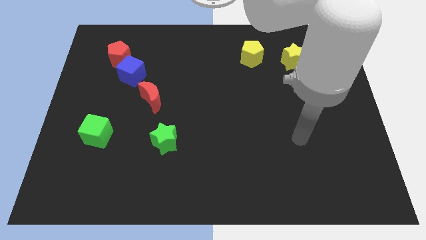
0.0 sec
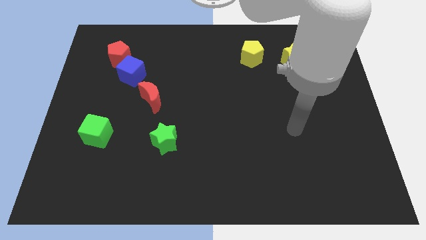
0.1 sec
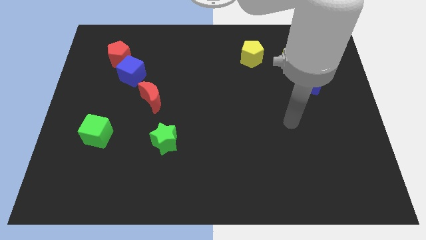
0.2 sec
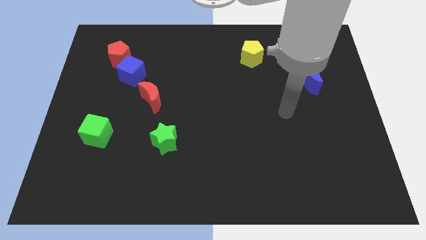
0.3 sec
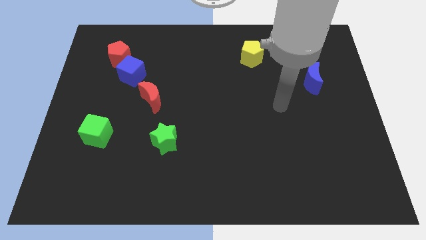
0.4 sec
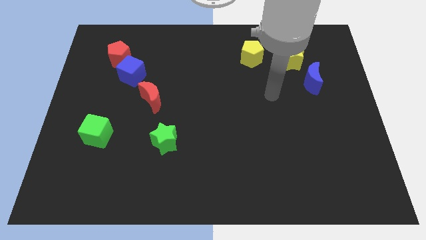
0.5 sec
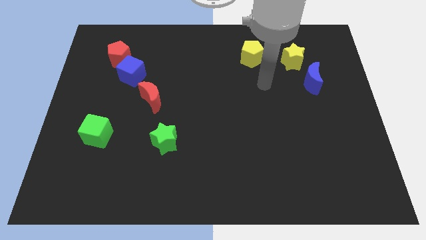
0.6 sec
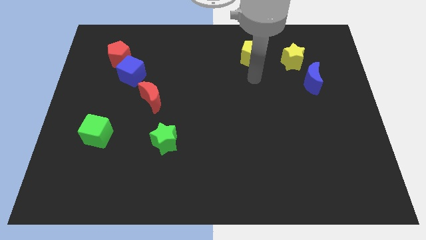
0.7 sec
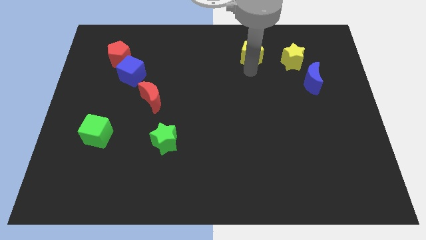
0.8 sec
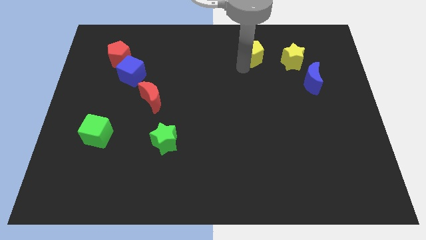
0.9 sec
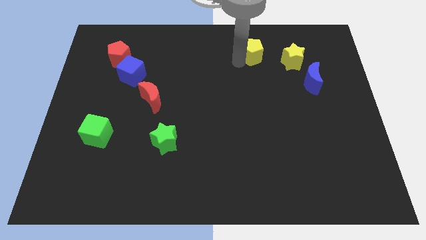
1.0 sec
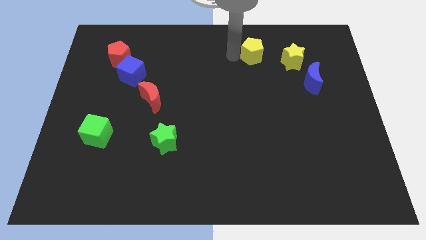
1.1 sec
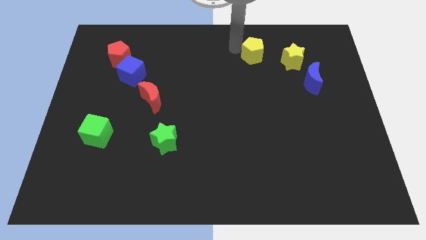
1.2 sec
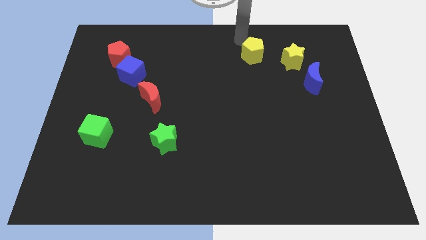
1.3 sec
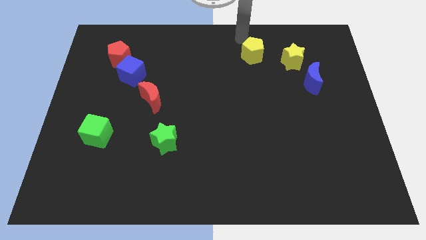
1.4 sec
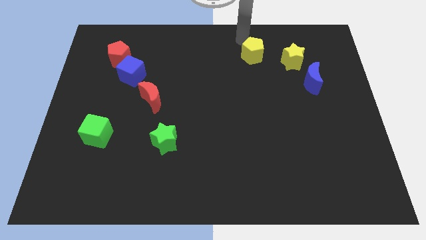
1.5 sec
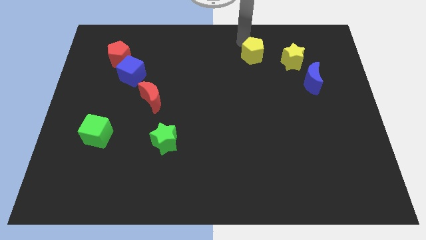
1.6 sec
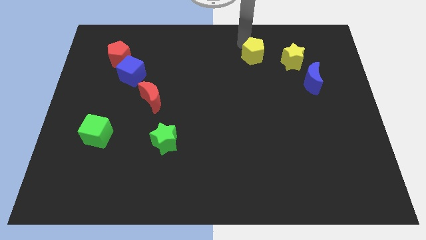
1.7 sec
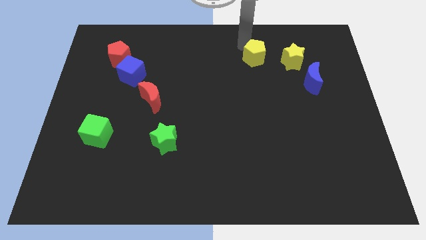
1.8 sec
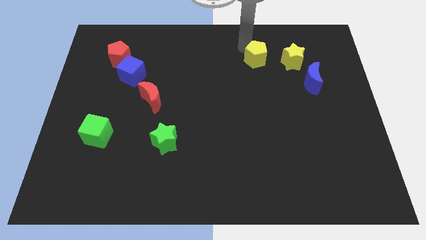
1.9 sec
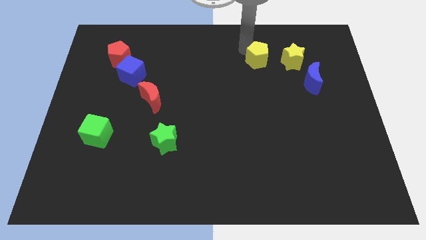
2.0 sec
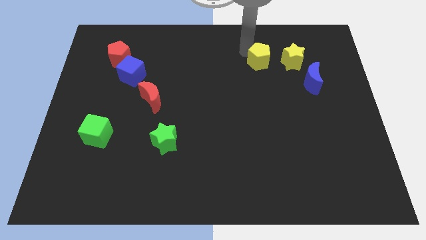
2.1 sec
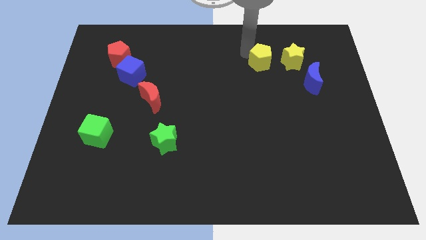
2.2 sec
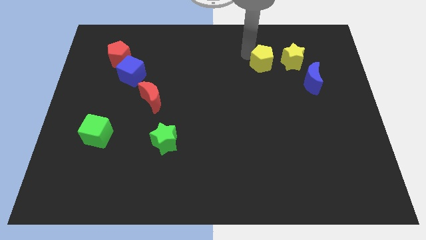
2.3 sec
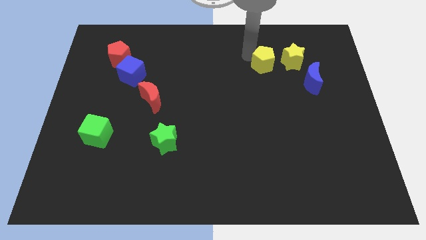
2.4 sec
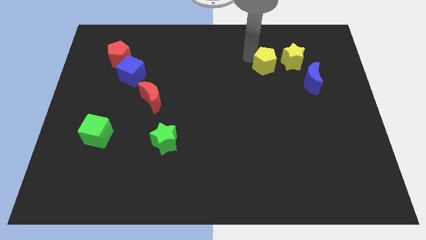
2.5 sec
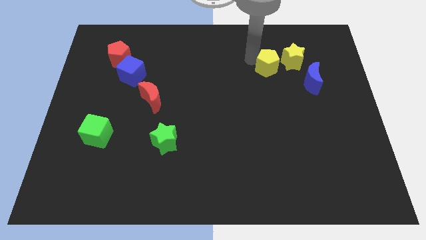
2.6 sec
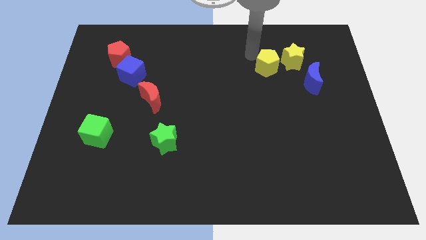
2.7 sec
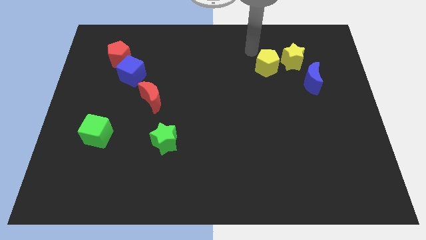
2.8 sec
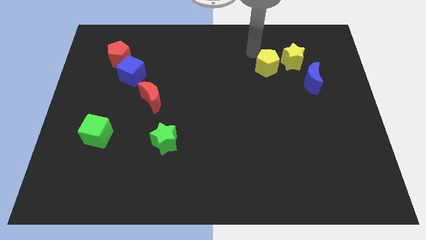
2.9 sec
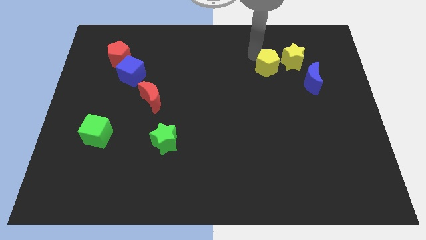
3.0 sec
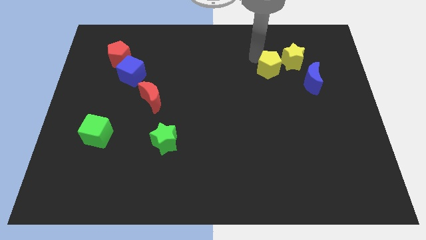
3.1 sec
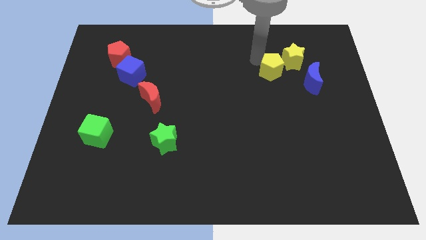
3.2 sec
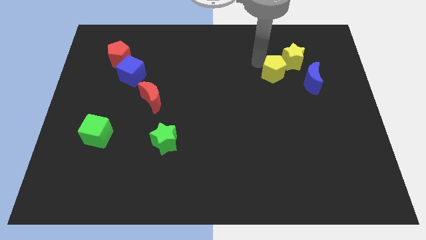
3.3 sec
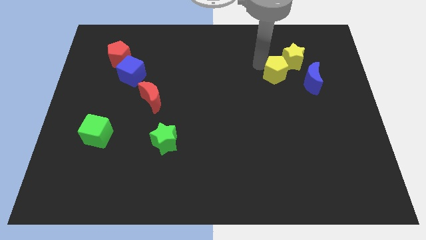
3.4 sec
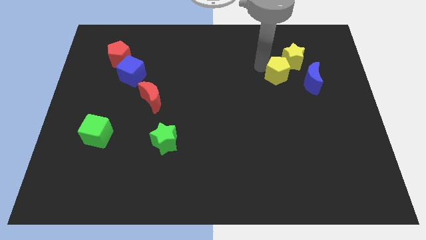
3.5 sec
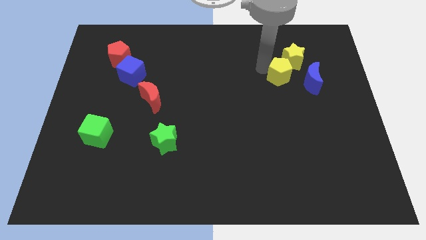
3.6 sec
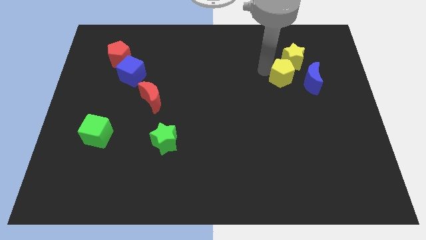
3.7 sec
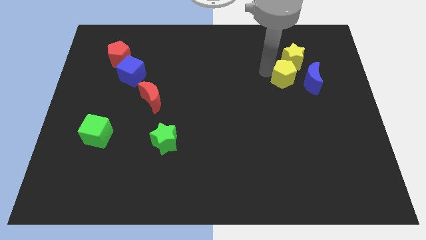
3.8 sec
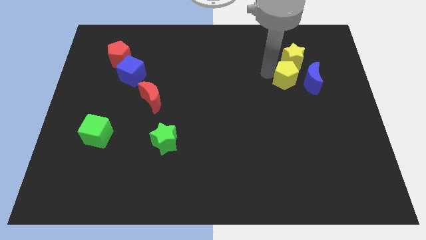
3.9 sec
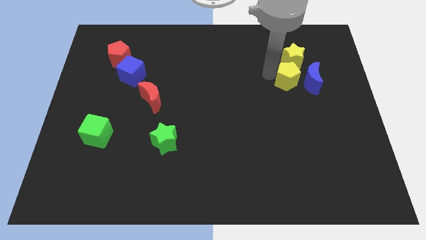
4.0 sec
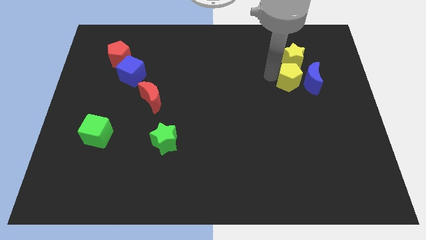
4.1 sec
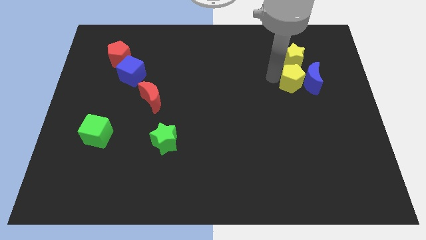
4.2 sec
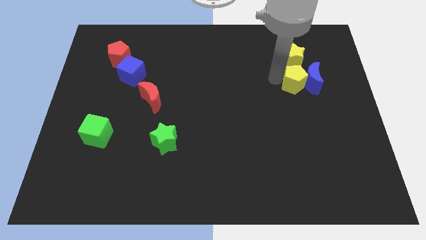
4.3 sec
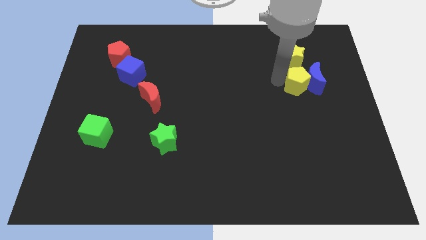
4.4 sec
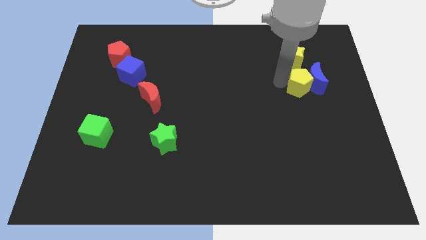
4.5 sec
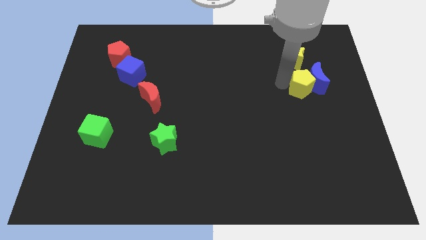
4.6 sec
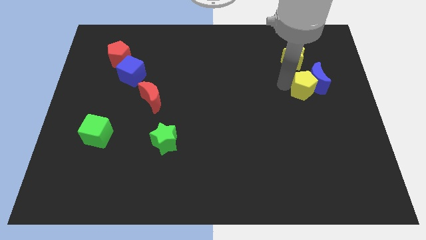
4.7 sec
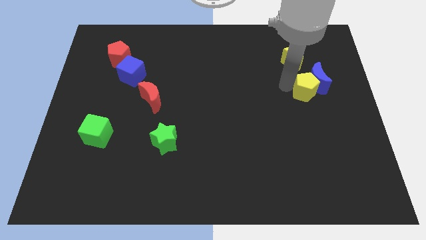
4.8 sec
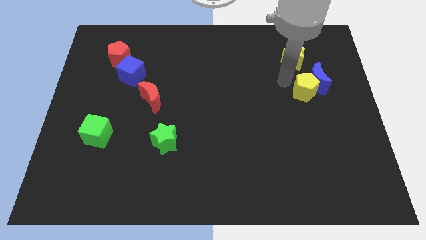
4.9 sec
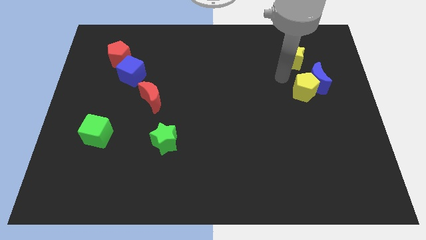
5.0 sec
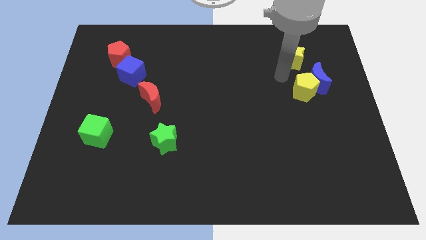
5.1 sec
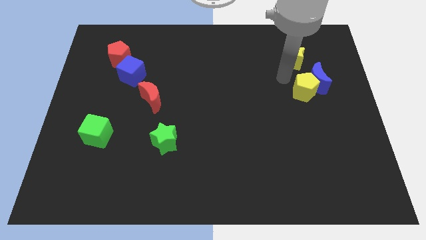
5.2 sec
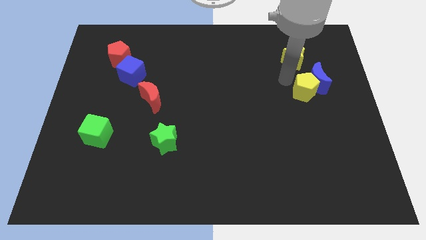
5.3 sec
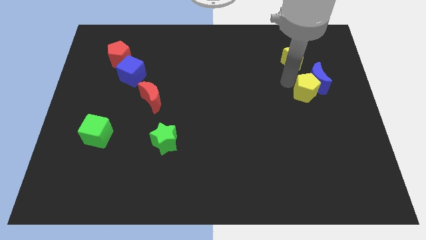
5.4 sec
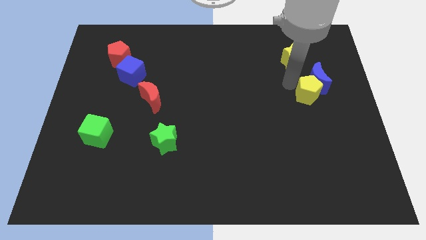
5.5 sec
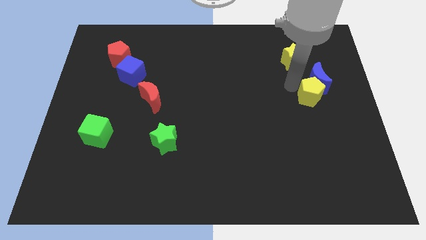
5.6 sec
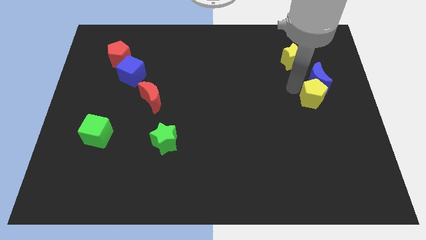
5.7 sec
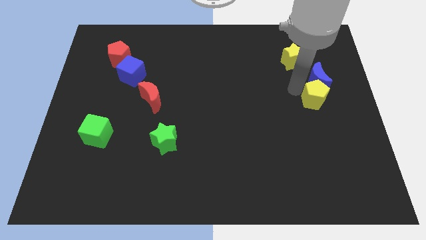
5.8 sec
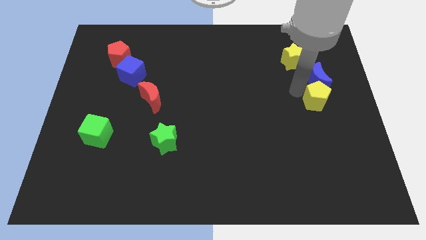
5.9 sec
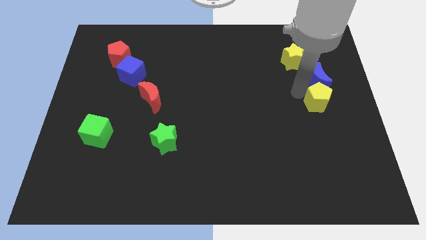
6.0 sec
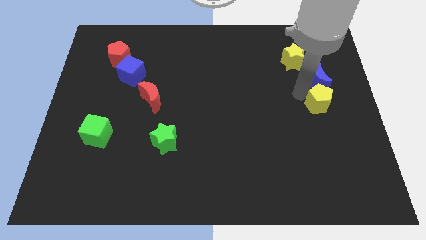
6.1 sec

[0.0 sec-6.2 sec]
push the yellow pentagon to the right side of the board

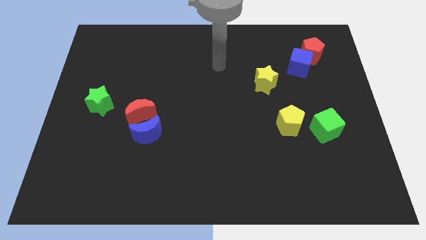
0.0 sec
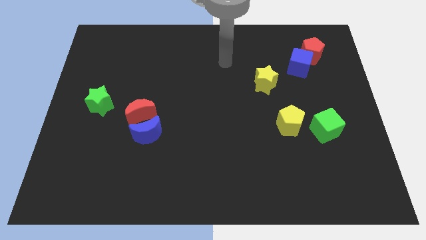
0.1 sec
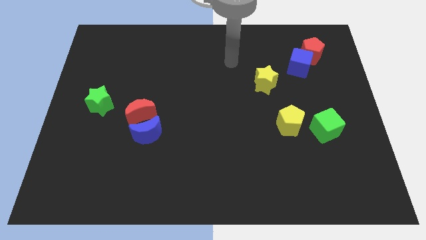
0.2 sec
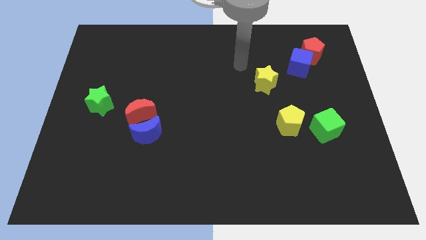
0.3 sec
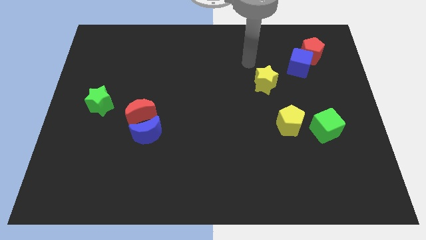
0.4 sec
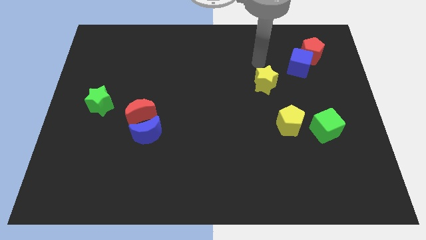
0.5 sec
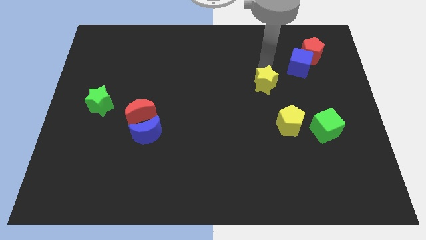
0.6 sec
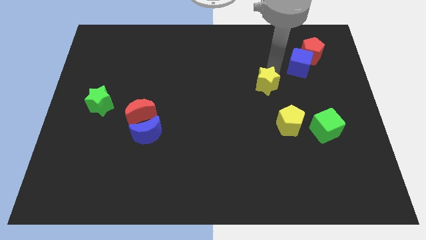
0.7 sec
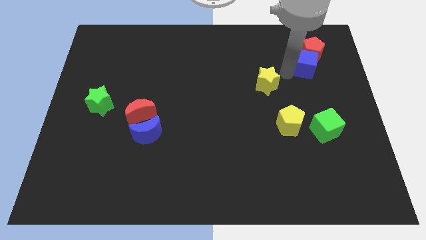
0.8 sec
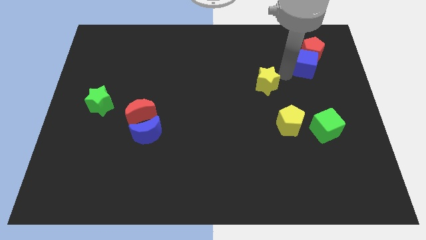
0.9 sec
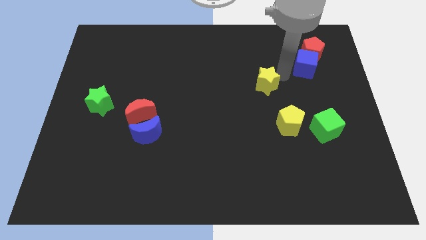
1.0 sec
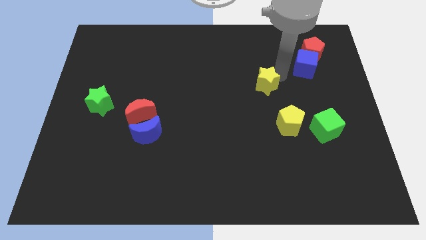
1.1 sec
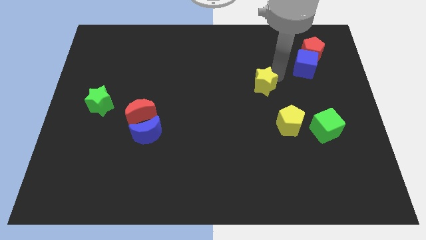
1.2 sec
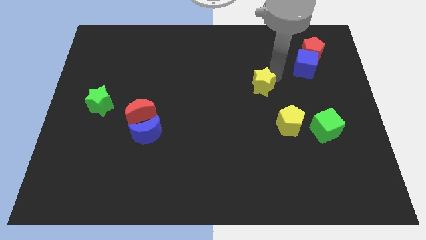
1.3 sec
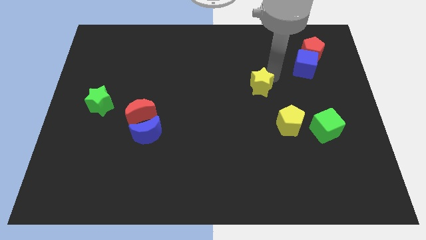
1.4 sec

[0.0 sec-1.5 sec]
slide the yellow star to the middle
